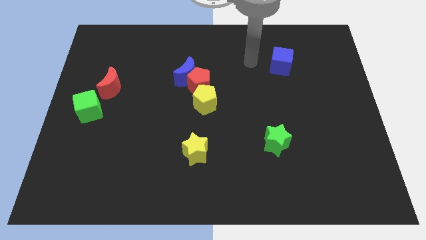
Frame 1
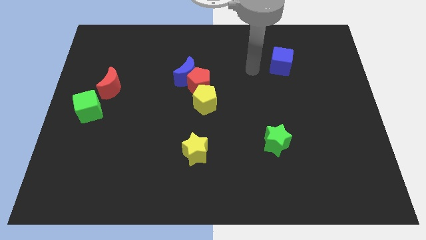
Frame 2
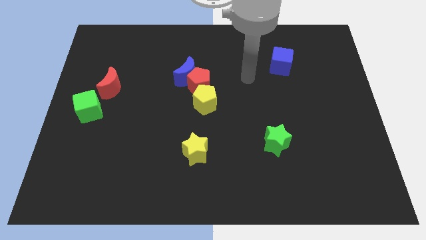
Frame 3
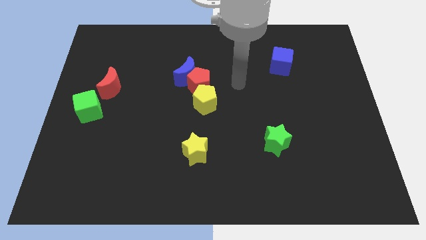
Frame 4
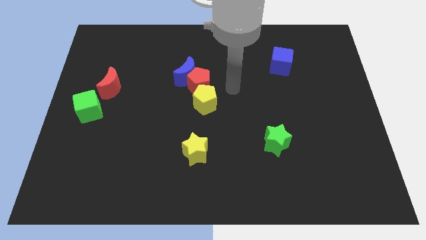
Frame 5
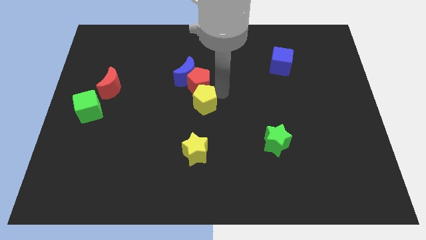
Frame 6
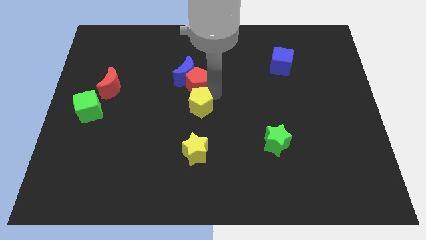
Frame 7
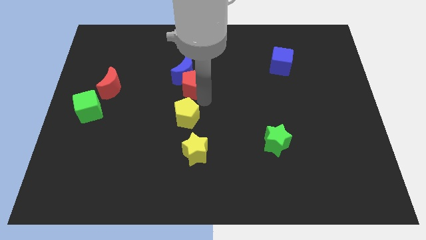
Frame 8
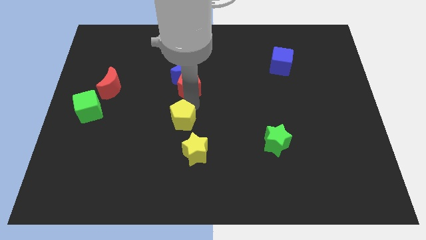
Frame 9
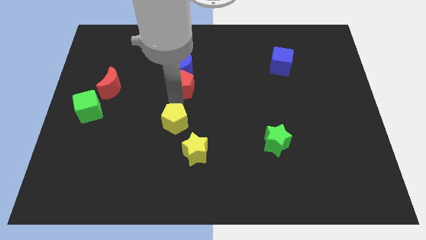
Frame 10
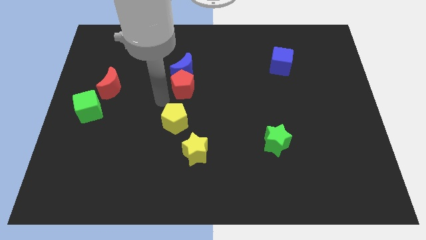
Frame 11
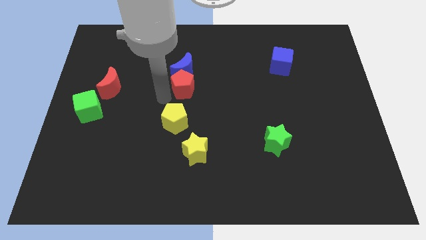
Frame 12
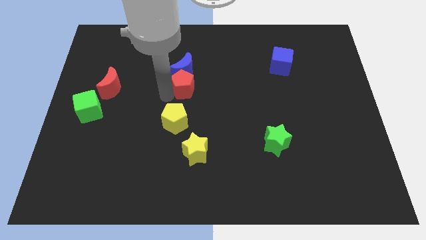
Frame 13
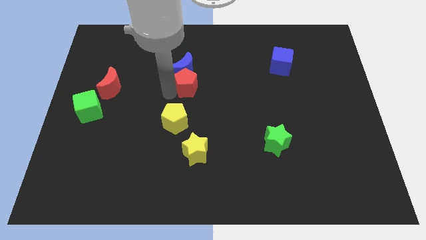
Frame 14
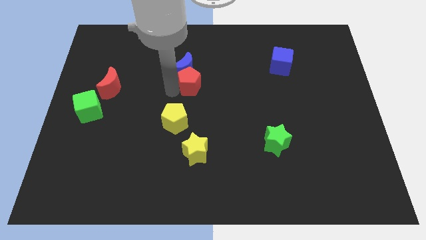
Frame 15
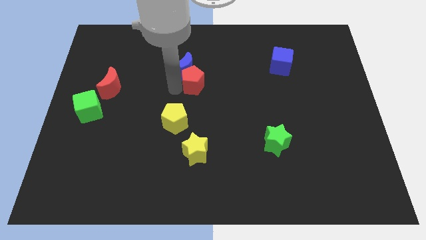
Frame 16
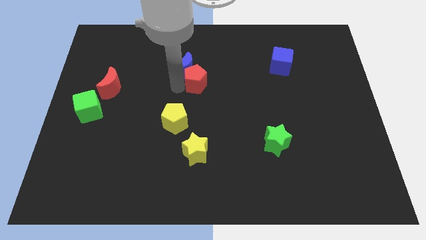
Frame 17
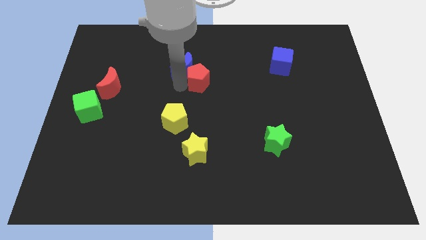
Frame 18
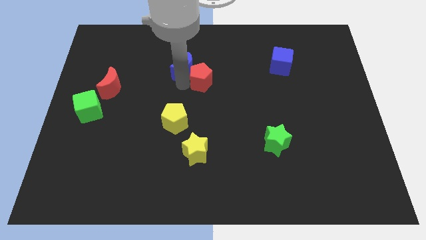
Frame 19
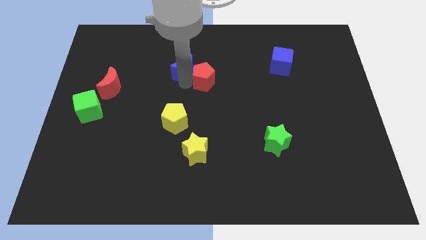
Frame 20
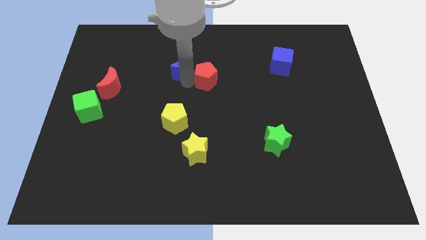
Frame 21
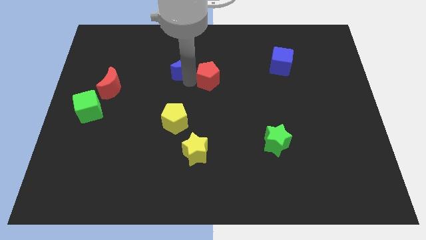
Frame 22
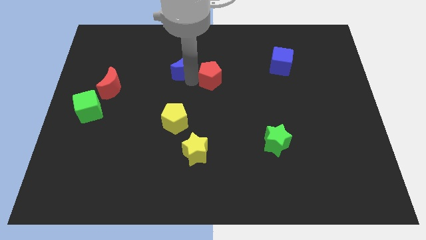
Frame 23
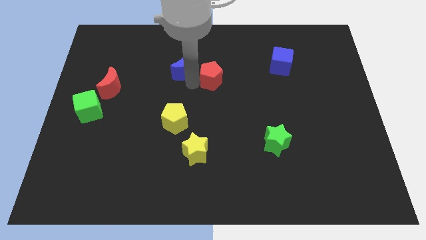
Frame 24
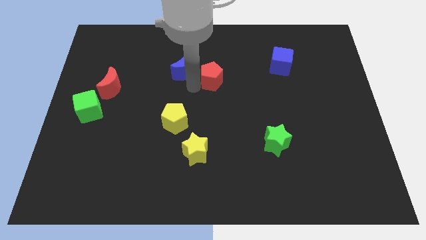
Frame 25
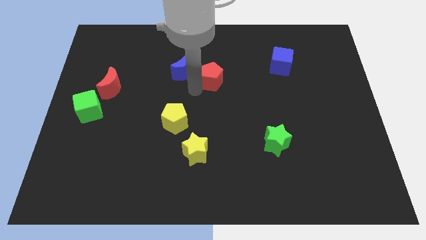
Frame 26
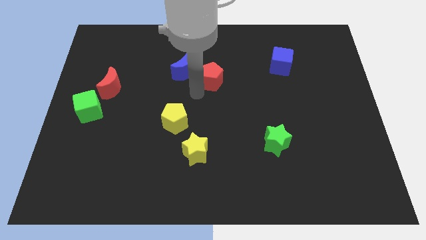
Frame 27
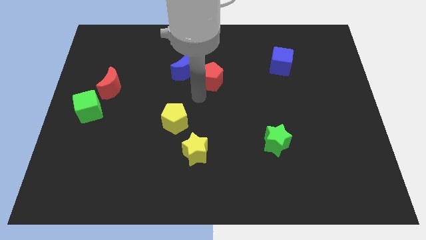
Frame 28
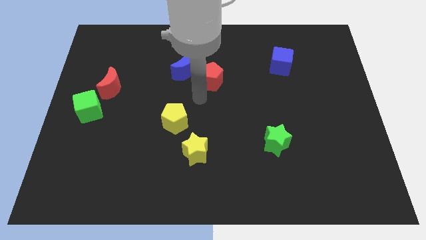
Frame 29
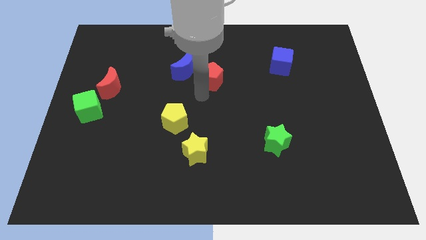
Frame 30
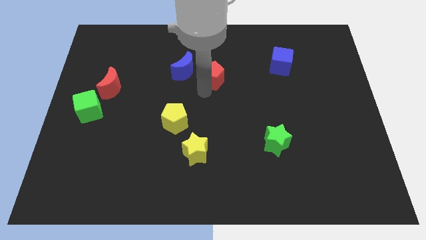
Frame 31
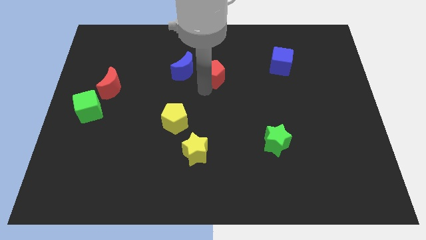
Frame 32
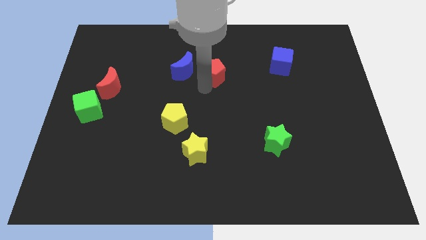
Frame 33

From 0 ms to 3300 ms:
separate the red pentagon from the blue moon and yellow pentagon

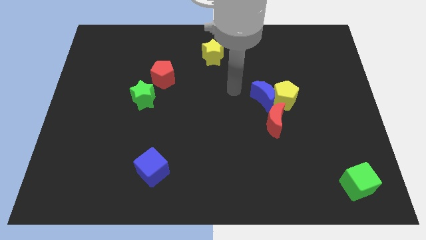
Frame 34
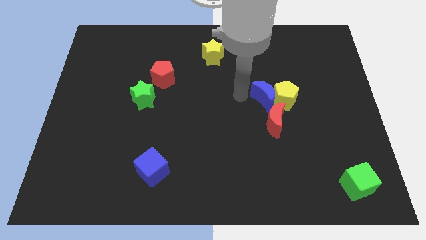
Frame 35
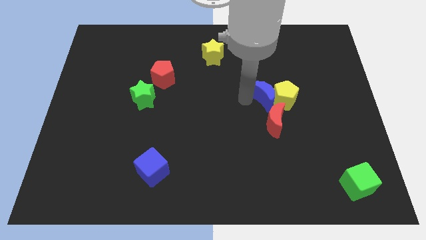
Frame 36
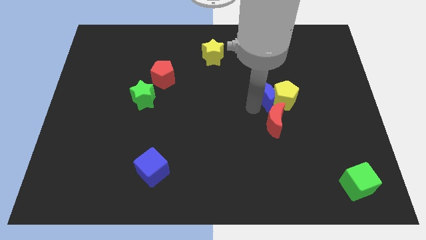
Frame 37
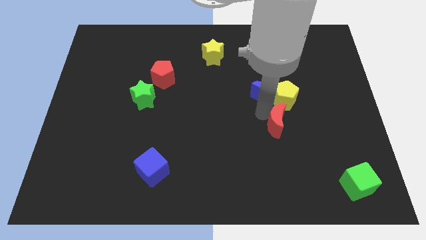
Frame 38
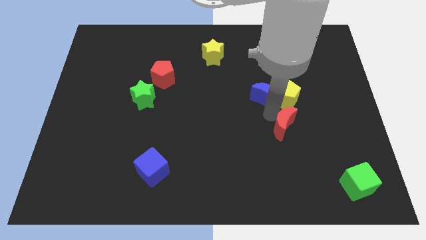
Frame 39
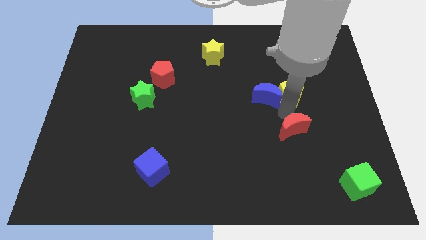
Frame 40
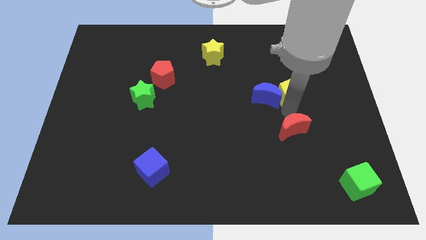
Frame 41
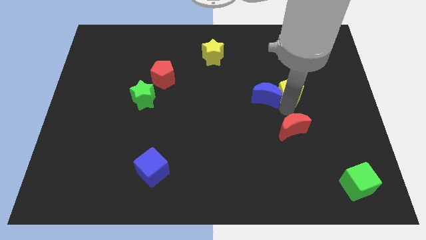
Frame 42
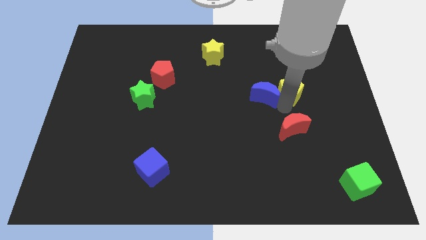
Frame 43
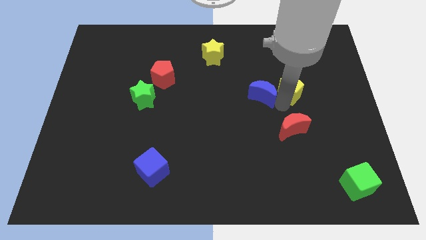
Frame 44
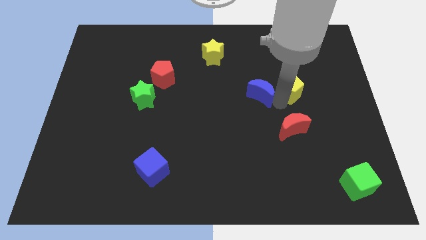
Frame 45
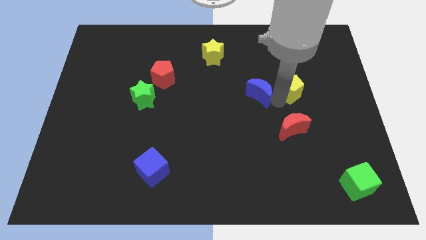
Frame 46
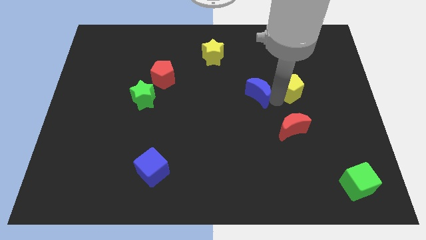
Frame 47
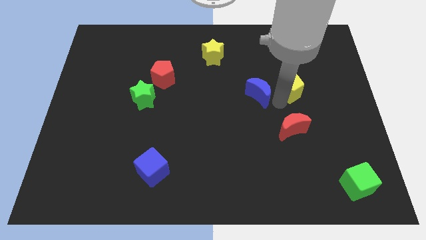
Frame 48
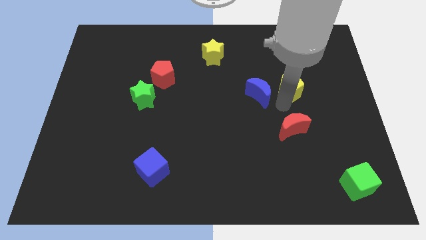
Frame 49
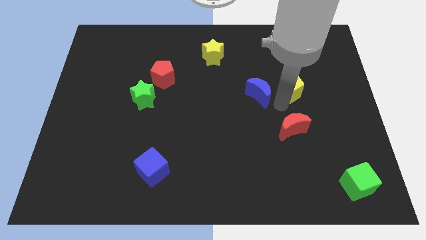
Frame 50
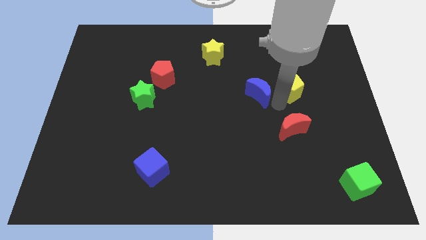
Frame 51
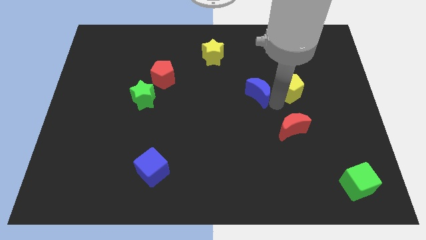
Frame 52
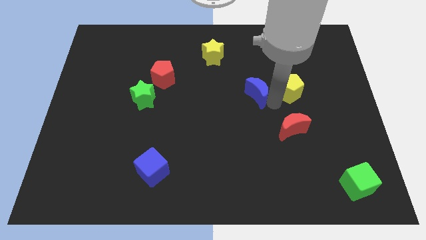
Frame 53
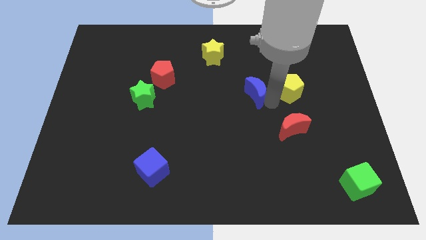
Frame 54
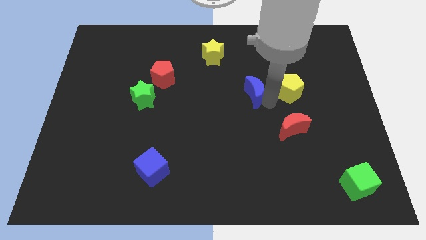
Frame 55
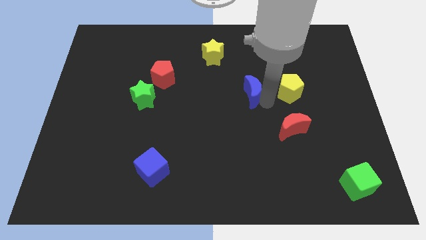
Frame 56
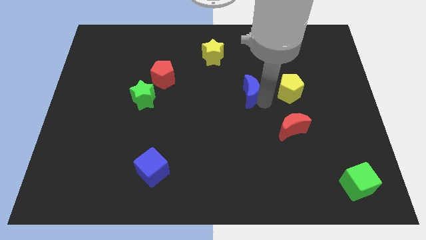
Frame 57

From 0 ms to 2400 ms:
pull the blue moon apart from the yellow pentagon and red moon

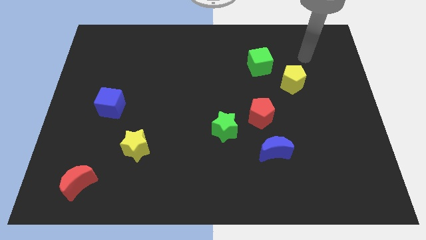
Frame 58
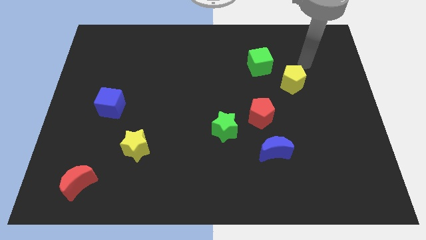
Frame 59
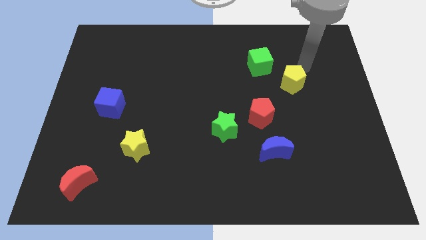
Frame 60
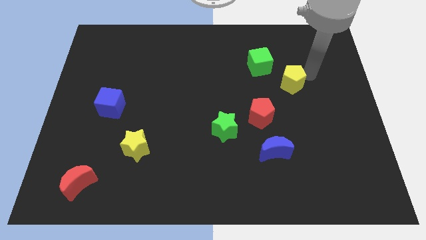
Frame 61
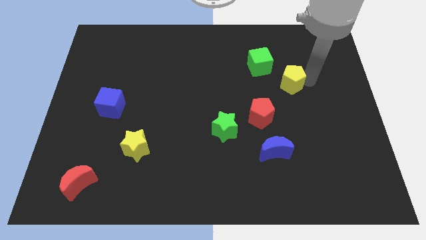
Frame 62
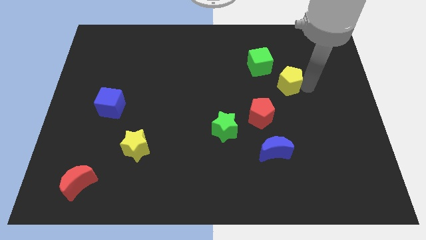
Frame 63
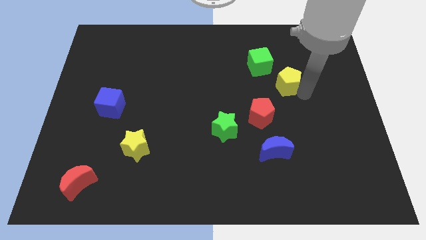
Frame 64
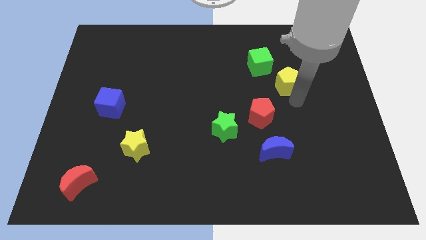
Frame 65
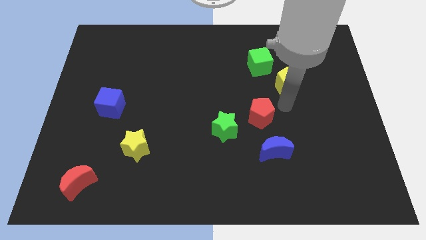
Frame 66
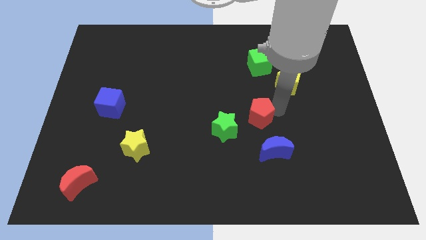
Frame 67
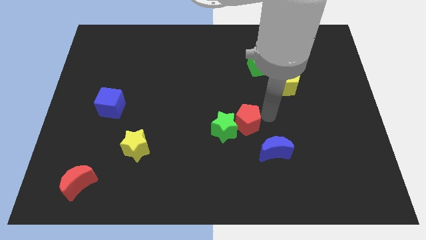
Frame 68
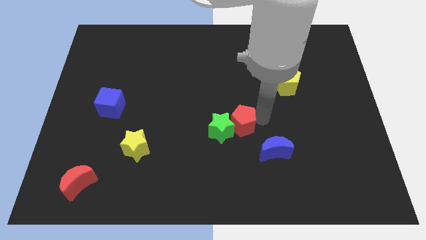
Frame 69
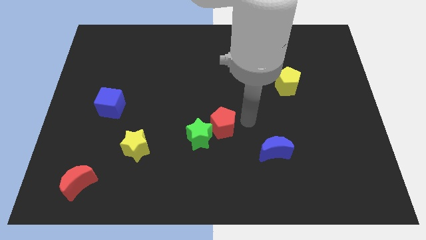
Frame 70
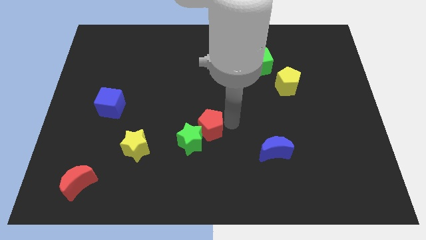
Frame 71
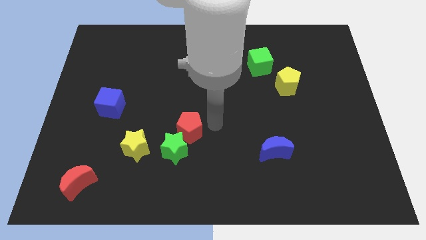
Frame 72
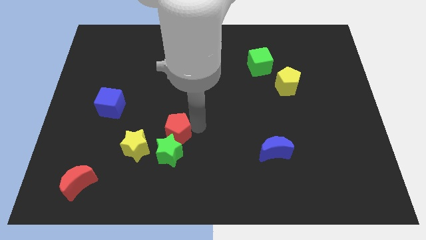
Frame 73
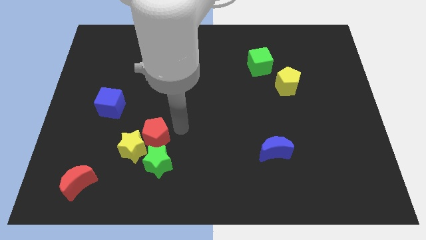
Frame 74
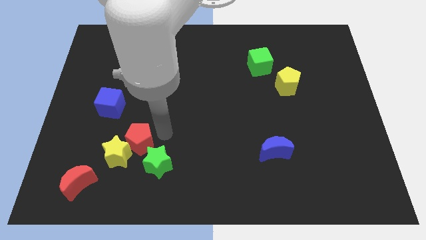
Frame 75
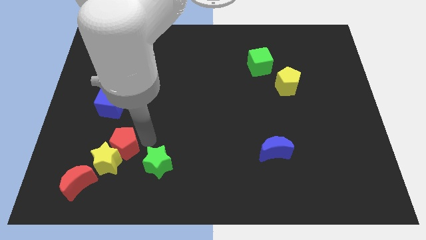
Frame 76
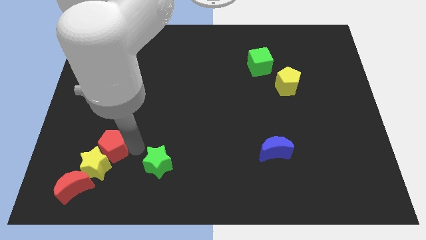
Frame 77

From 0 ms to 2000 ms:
move the green star away from the red pentagon

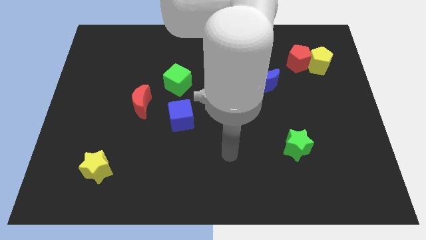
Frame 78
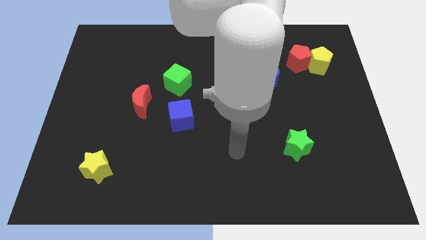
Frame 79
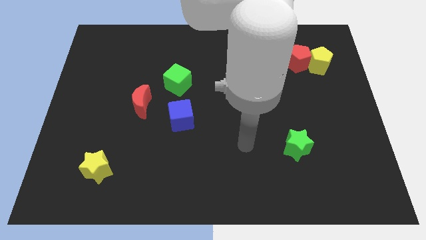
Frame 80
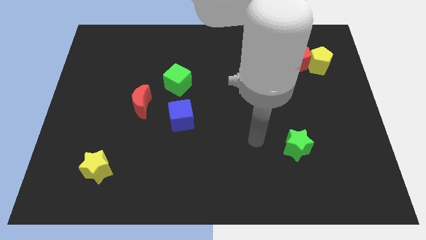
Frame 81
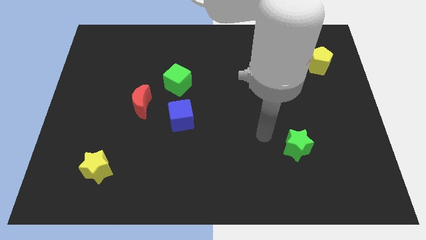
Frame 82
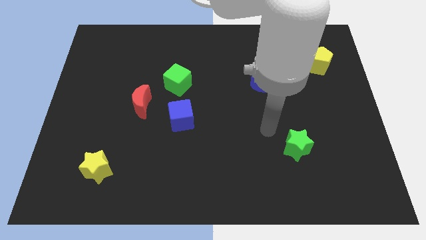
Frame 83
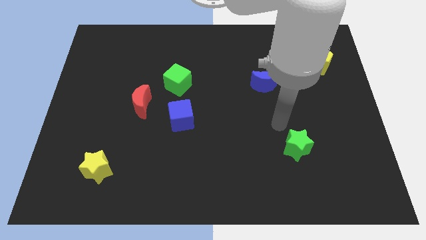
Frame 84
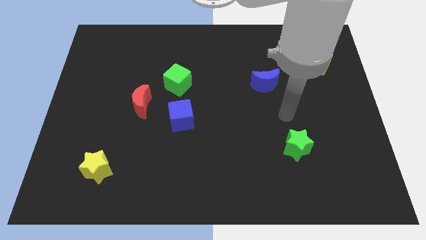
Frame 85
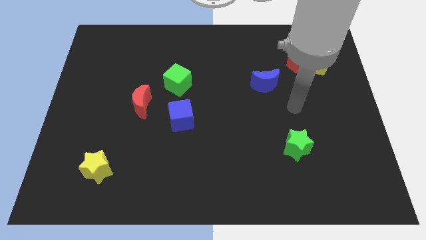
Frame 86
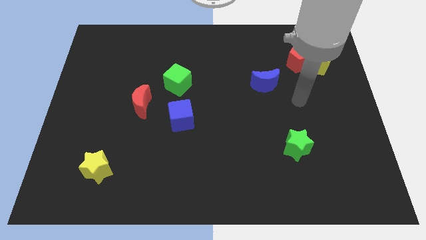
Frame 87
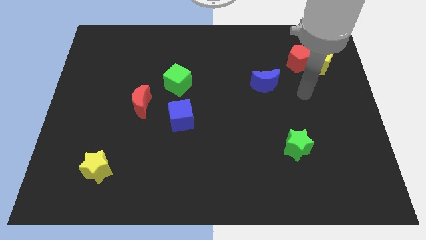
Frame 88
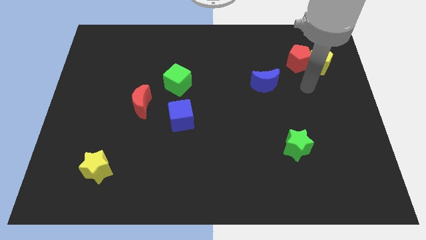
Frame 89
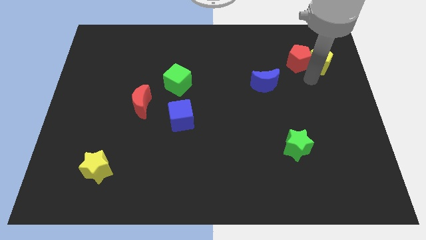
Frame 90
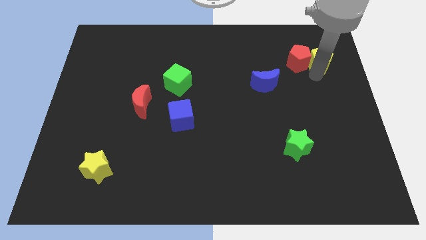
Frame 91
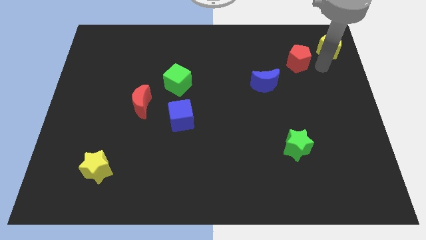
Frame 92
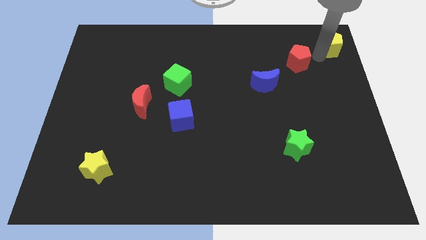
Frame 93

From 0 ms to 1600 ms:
pull the red pentagon apart from the yellow pentagon

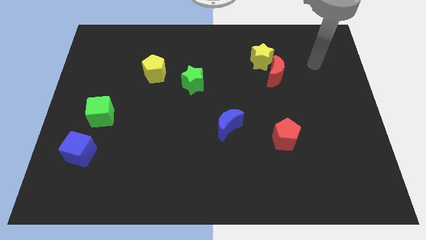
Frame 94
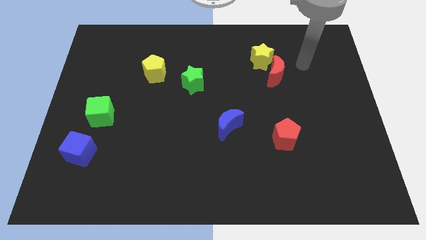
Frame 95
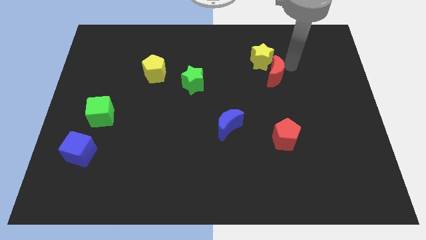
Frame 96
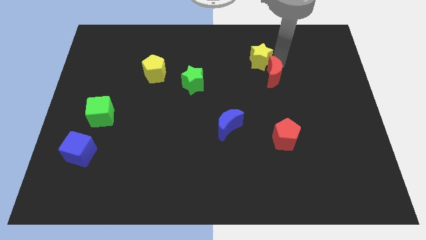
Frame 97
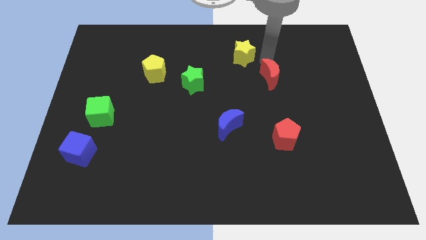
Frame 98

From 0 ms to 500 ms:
separate the red moon from the yellow star
